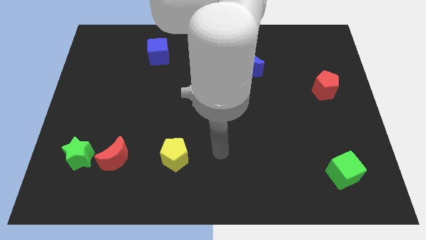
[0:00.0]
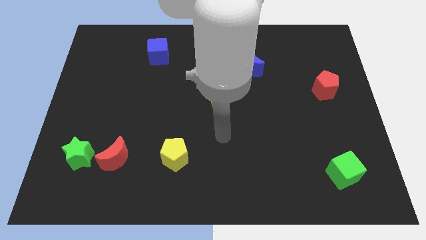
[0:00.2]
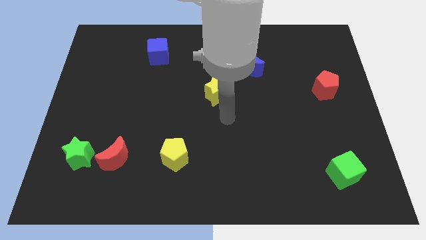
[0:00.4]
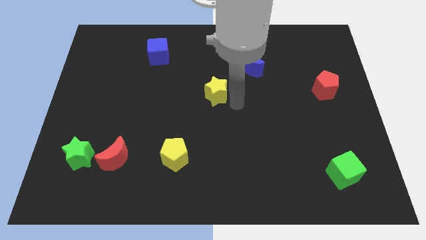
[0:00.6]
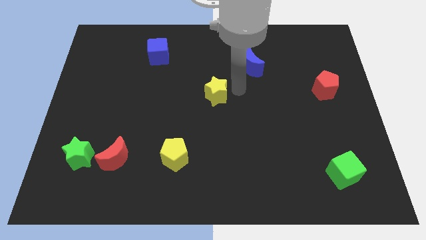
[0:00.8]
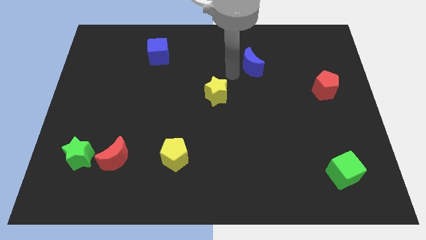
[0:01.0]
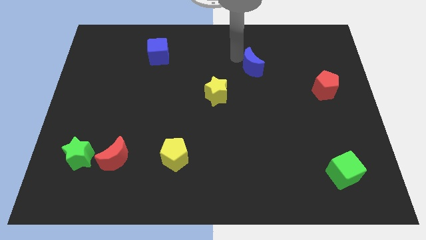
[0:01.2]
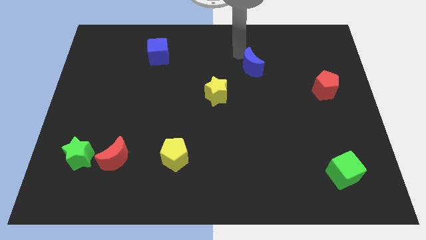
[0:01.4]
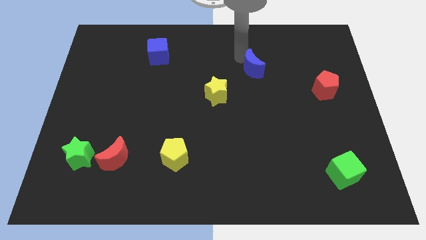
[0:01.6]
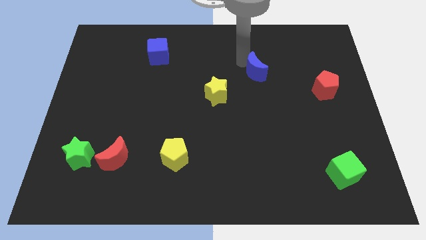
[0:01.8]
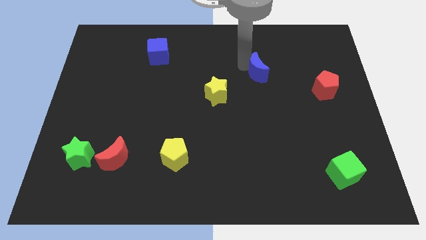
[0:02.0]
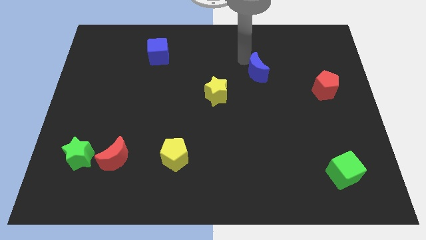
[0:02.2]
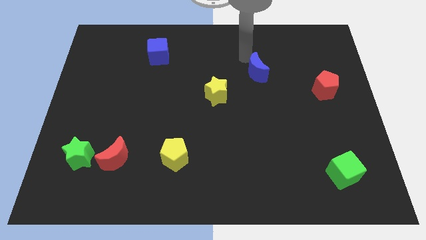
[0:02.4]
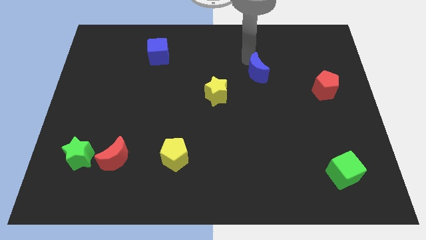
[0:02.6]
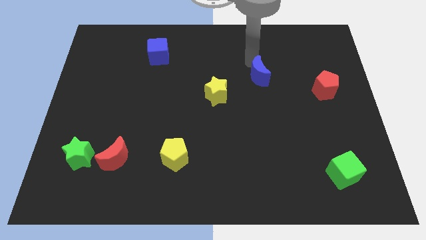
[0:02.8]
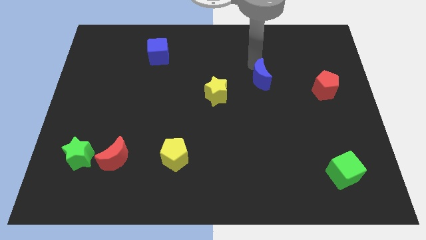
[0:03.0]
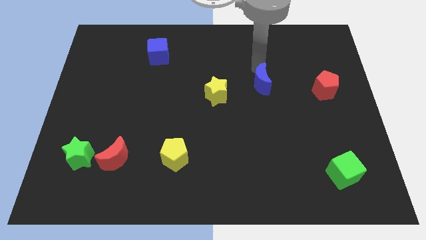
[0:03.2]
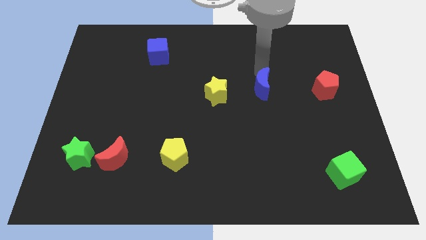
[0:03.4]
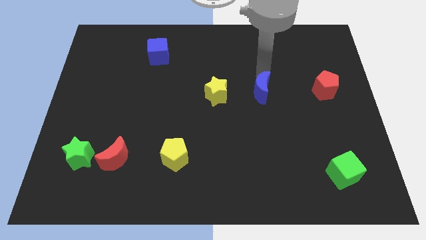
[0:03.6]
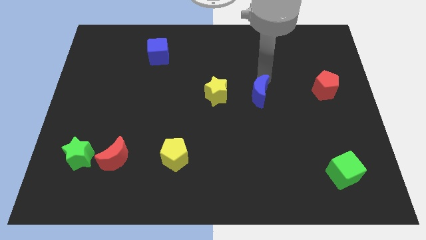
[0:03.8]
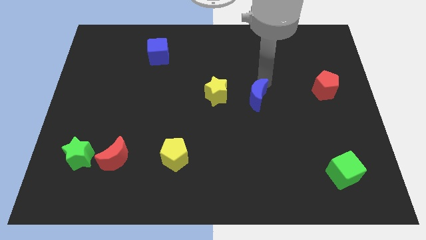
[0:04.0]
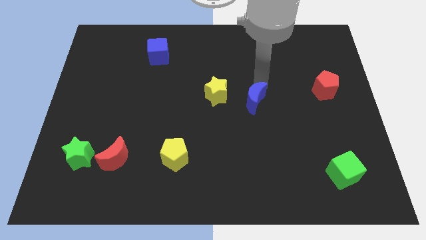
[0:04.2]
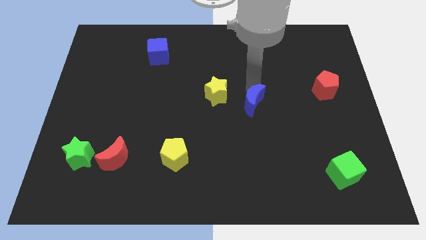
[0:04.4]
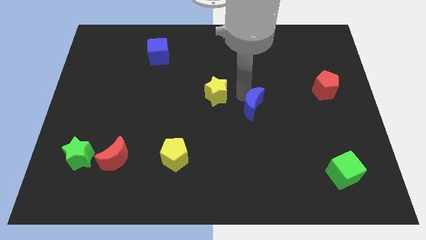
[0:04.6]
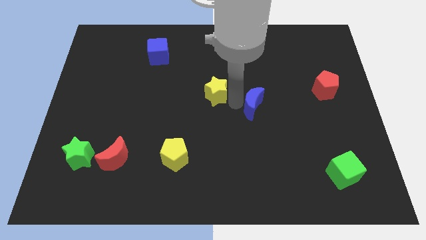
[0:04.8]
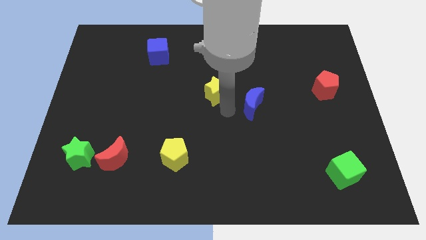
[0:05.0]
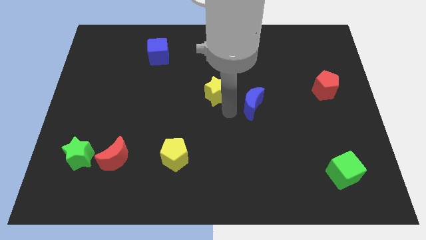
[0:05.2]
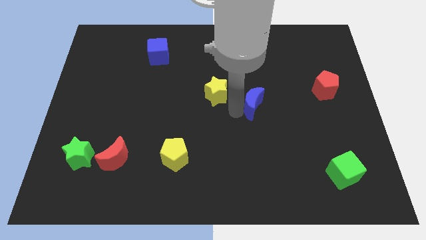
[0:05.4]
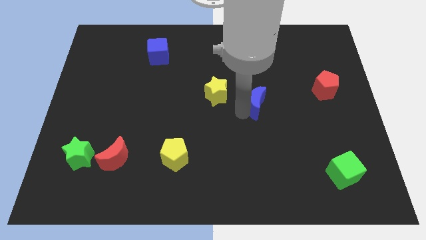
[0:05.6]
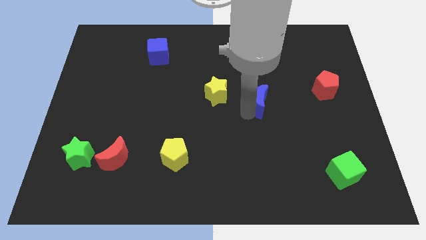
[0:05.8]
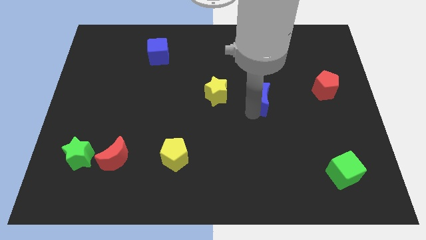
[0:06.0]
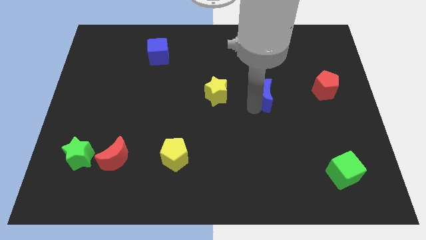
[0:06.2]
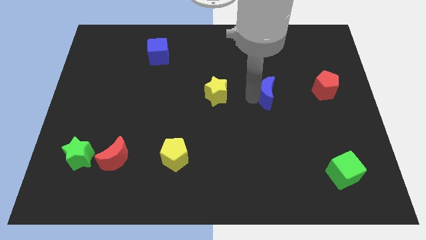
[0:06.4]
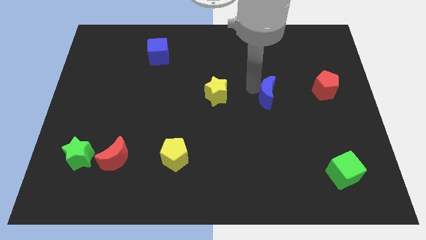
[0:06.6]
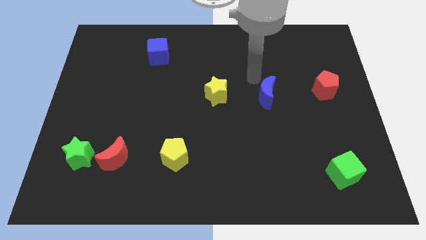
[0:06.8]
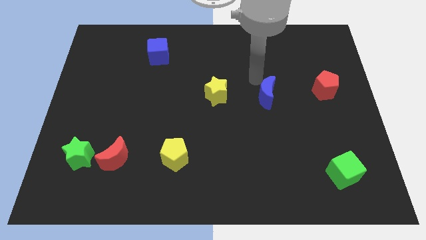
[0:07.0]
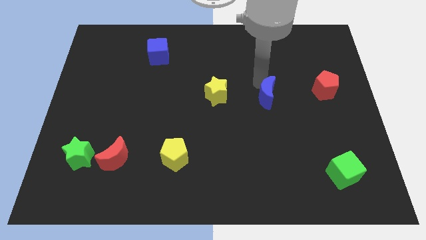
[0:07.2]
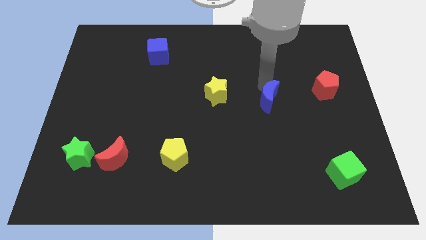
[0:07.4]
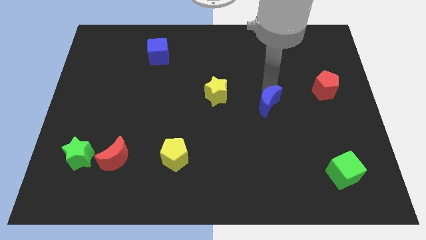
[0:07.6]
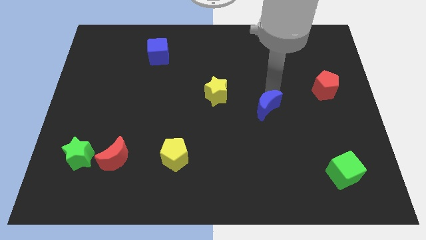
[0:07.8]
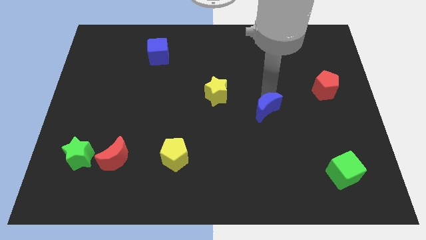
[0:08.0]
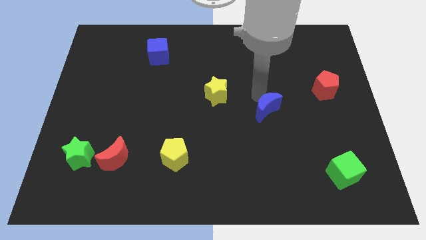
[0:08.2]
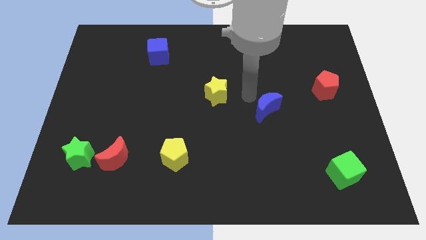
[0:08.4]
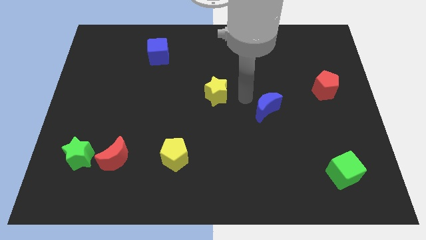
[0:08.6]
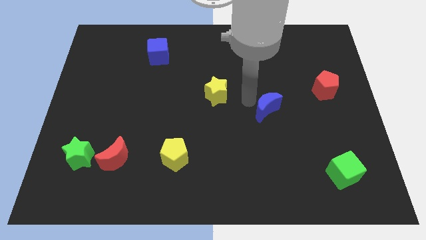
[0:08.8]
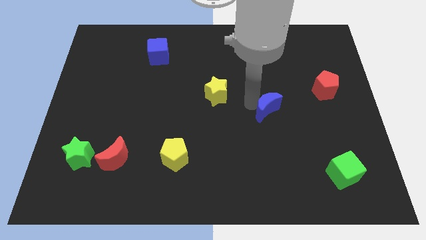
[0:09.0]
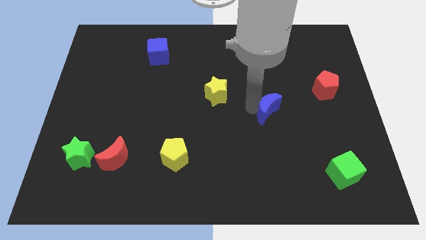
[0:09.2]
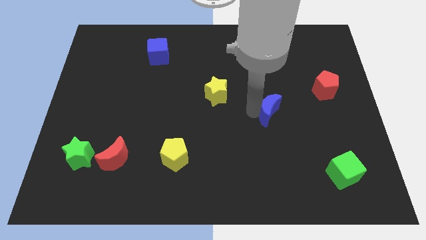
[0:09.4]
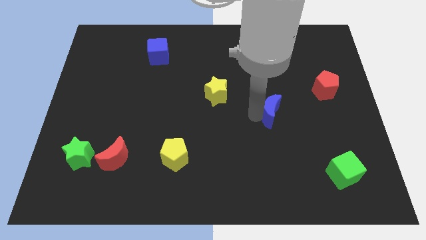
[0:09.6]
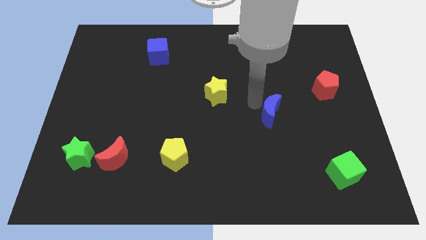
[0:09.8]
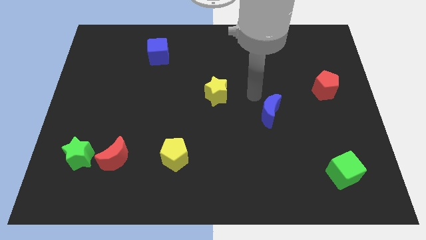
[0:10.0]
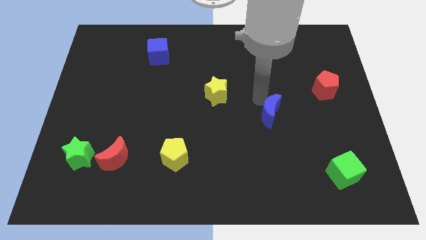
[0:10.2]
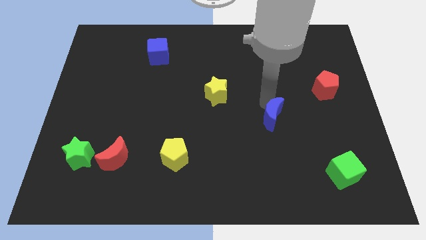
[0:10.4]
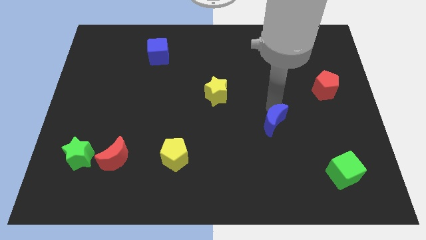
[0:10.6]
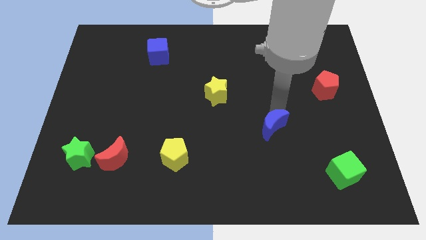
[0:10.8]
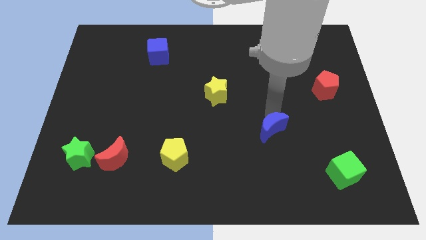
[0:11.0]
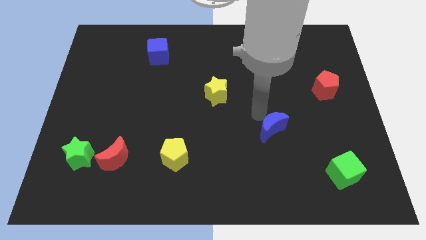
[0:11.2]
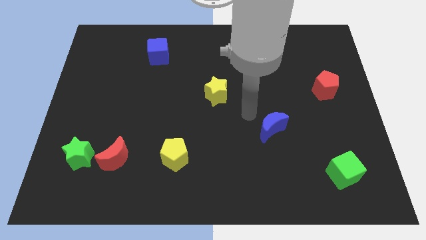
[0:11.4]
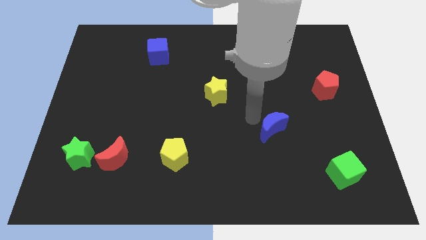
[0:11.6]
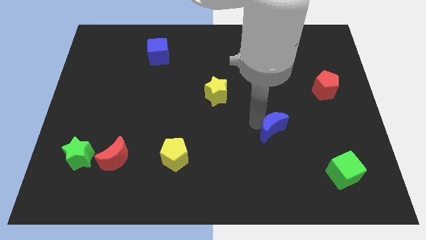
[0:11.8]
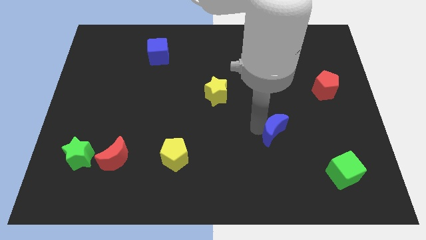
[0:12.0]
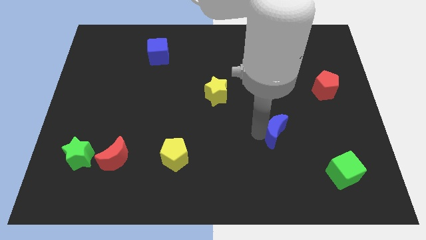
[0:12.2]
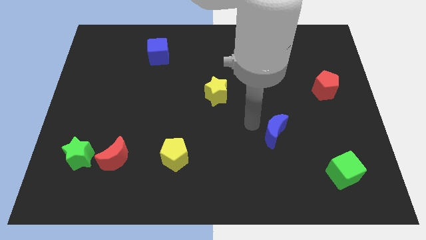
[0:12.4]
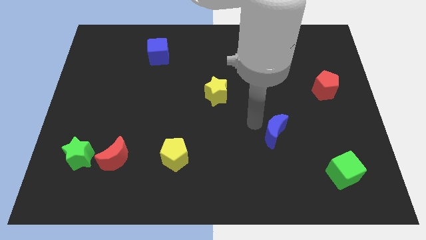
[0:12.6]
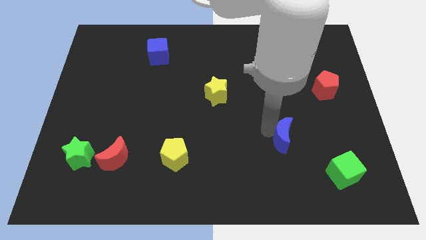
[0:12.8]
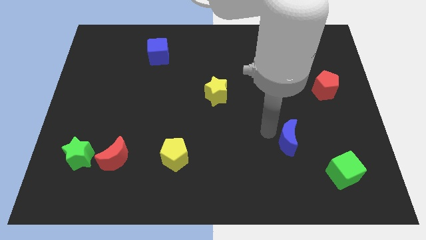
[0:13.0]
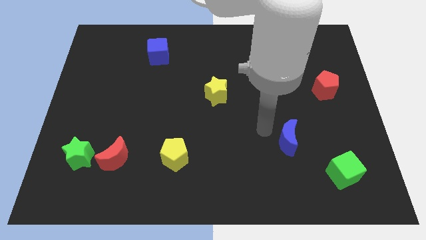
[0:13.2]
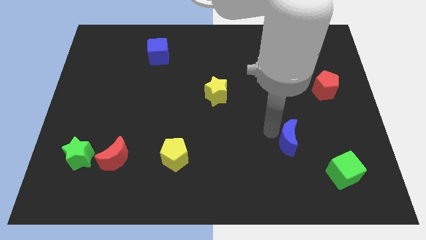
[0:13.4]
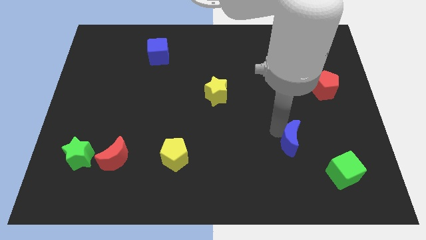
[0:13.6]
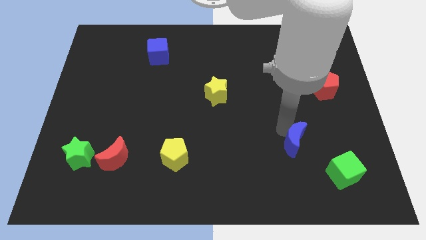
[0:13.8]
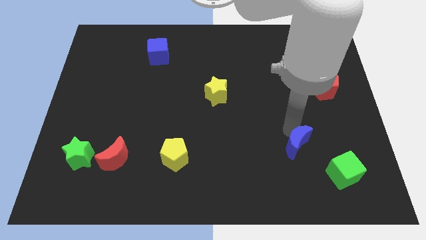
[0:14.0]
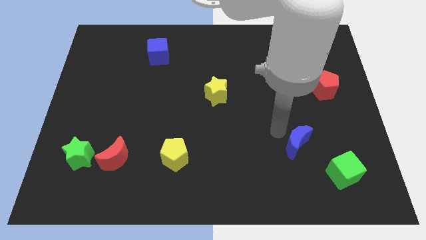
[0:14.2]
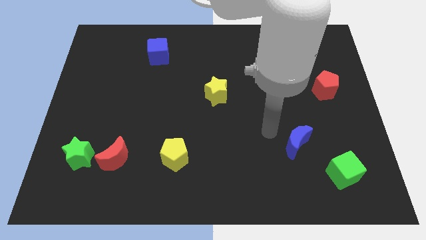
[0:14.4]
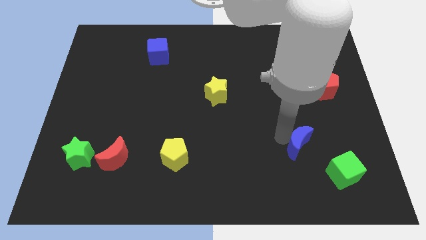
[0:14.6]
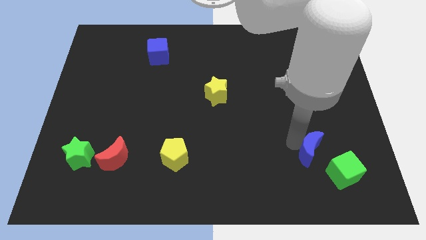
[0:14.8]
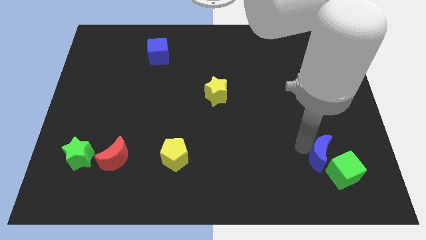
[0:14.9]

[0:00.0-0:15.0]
put the blue moon close to the green cube
